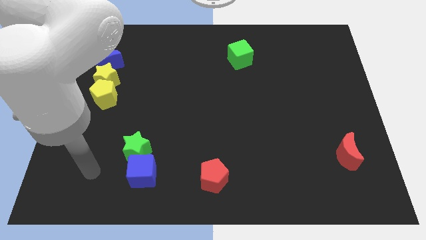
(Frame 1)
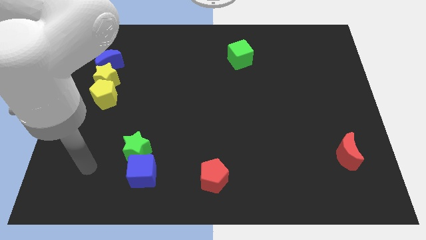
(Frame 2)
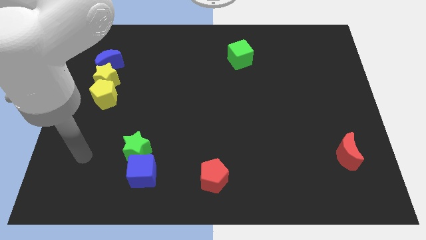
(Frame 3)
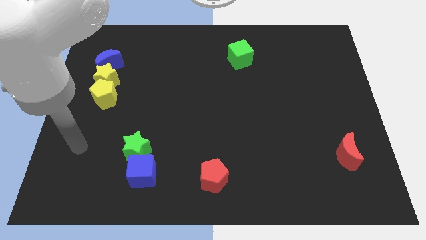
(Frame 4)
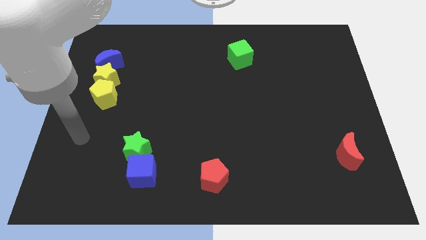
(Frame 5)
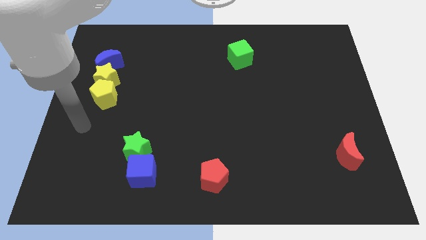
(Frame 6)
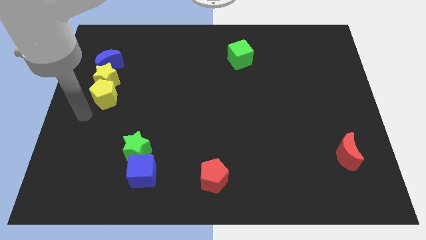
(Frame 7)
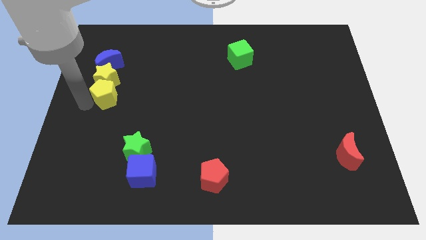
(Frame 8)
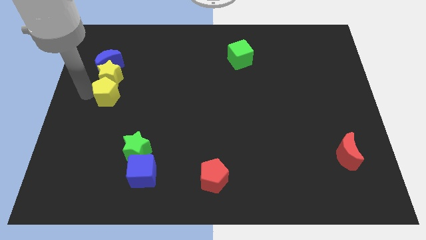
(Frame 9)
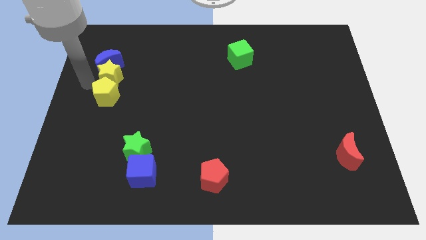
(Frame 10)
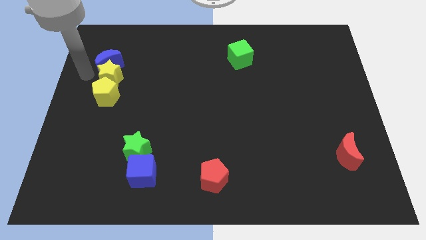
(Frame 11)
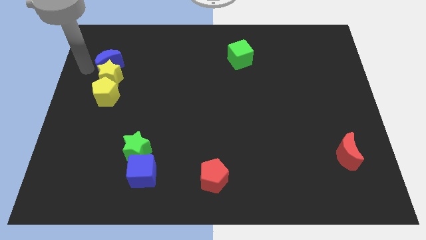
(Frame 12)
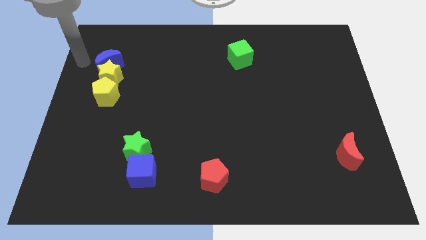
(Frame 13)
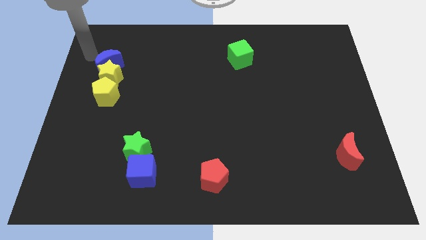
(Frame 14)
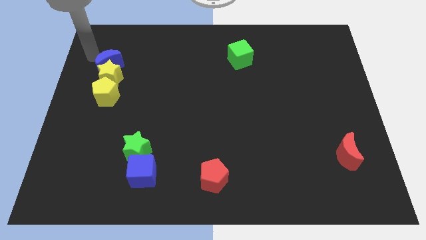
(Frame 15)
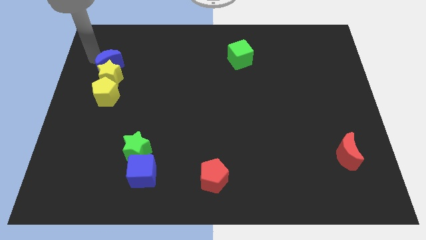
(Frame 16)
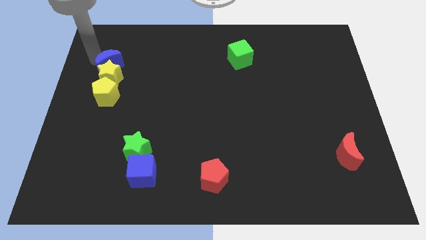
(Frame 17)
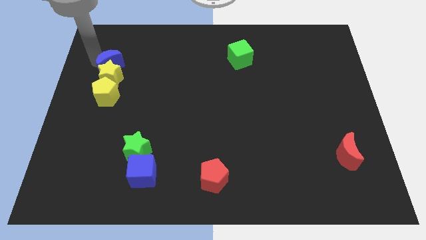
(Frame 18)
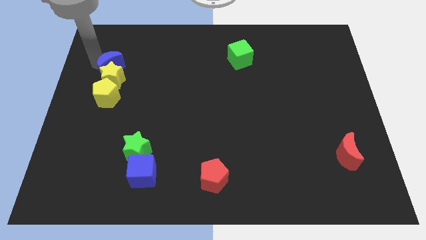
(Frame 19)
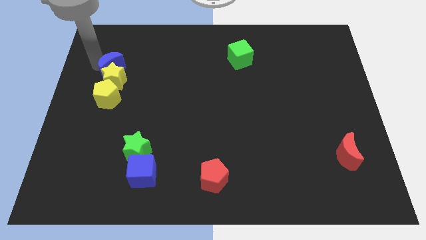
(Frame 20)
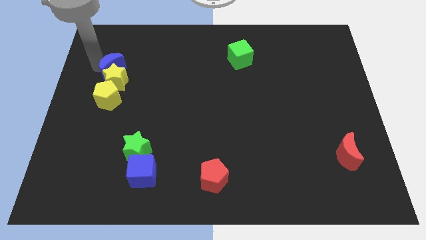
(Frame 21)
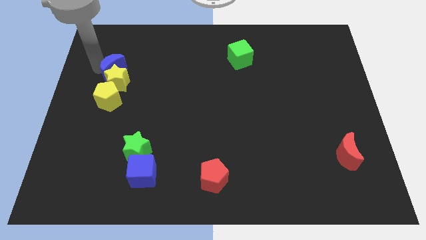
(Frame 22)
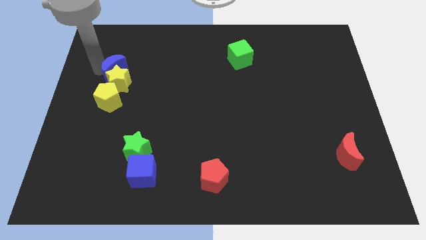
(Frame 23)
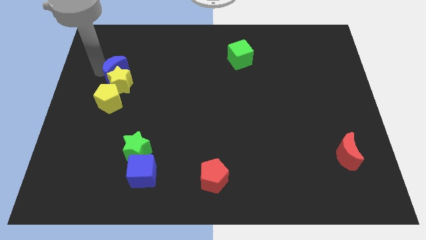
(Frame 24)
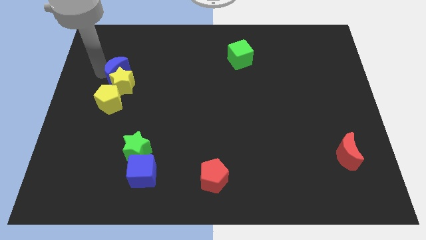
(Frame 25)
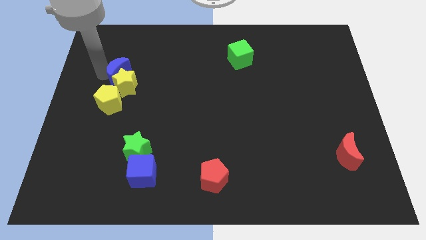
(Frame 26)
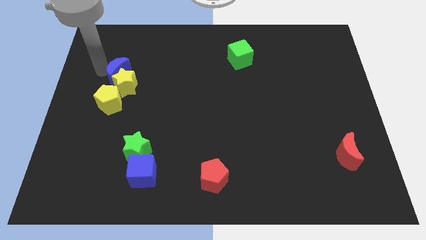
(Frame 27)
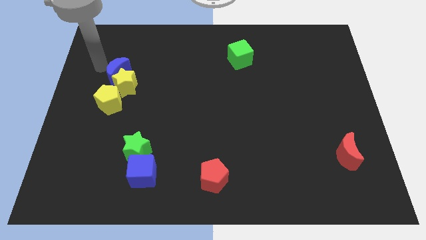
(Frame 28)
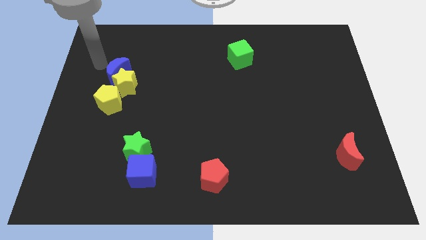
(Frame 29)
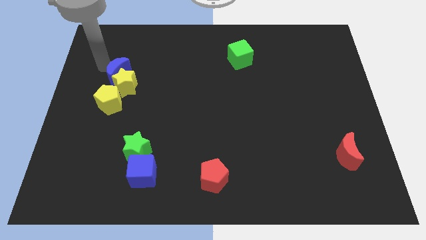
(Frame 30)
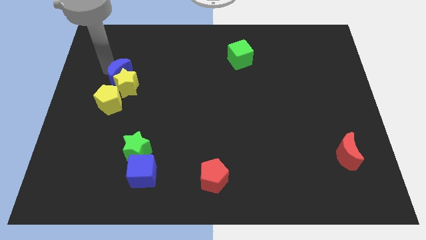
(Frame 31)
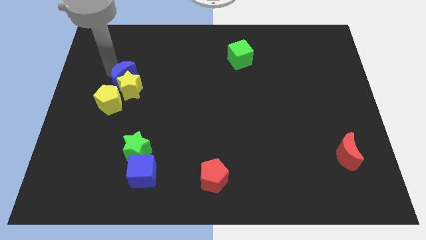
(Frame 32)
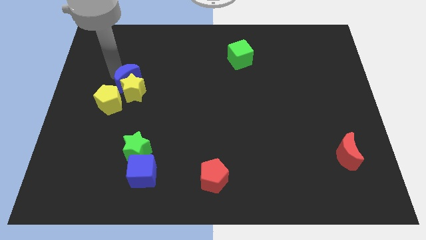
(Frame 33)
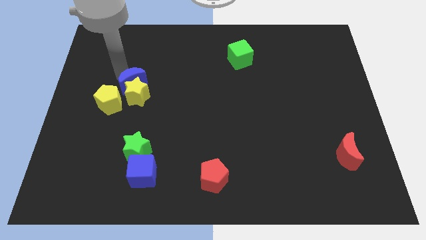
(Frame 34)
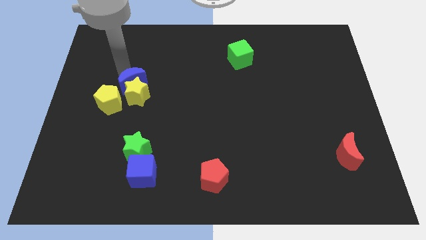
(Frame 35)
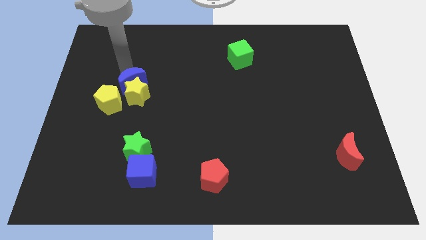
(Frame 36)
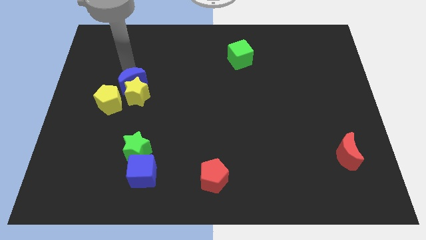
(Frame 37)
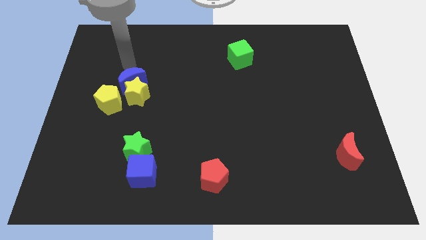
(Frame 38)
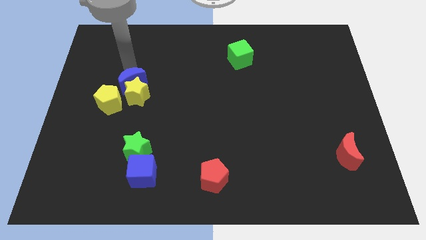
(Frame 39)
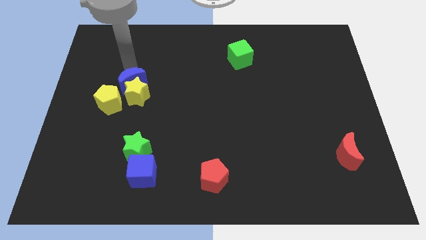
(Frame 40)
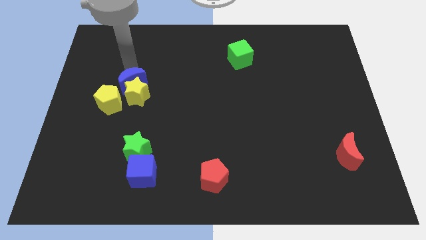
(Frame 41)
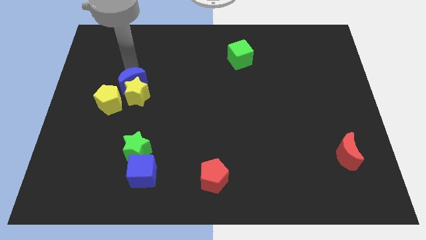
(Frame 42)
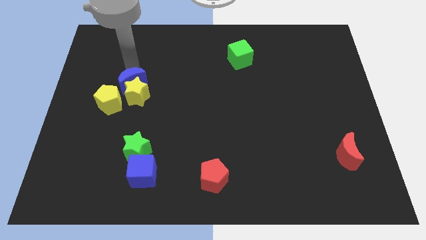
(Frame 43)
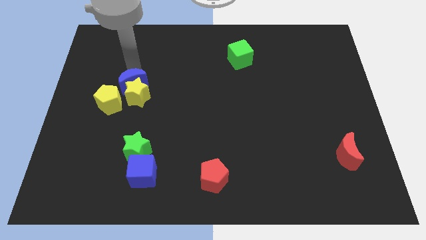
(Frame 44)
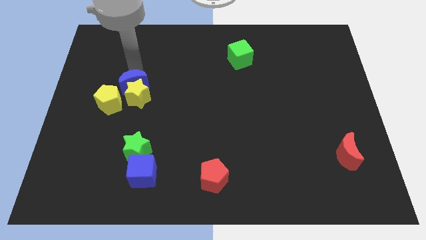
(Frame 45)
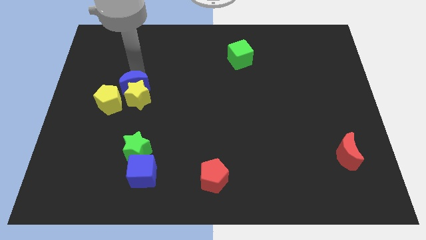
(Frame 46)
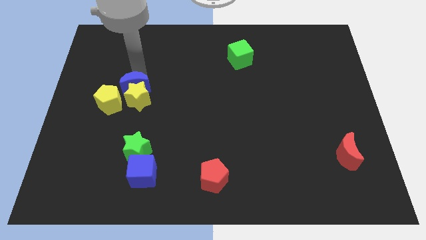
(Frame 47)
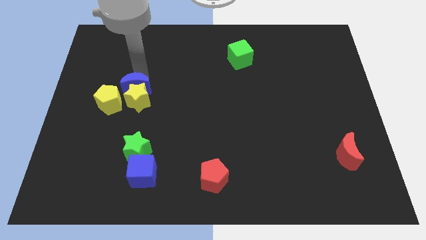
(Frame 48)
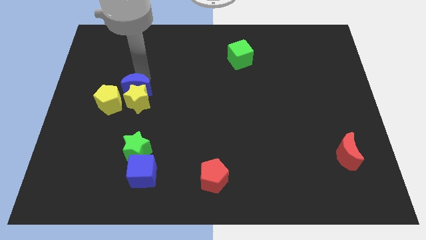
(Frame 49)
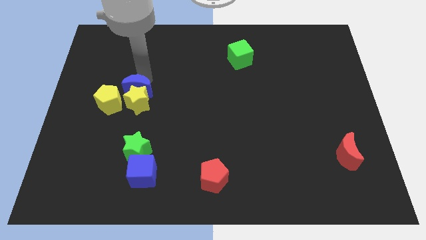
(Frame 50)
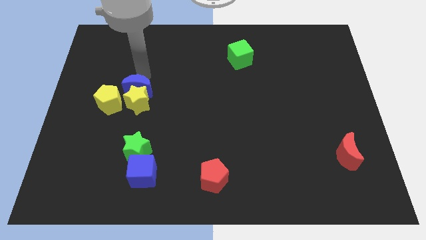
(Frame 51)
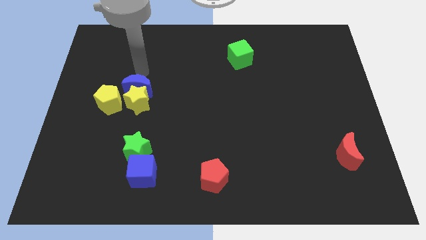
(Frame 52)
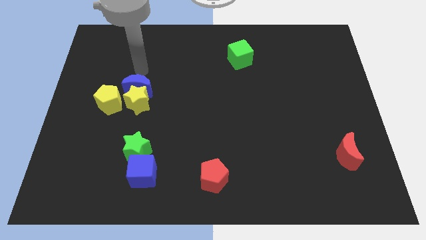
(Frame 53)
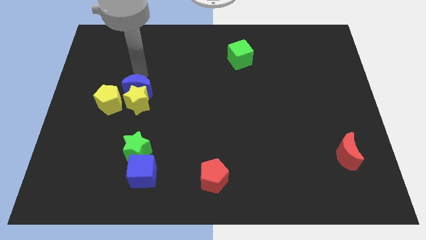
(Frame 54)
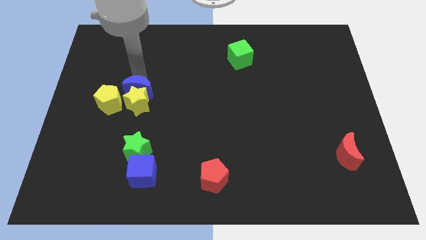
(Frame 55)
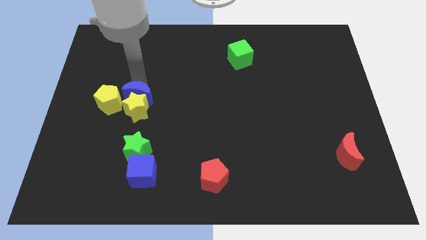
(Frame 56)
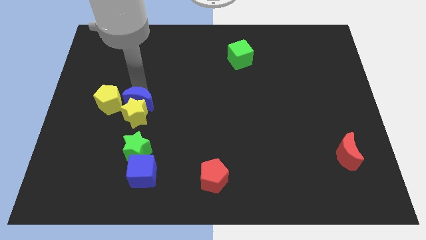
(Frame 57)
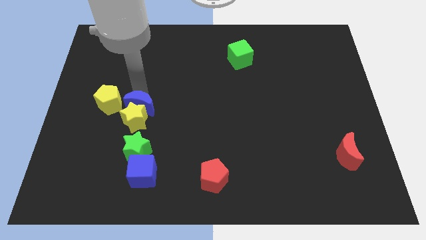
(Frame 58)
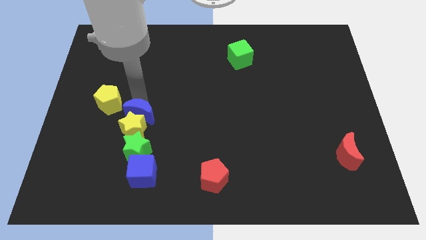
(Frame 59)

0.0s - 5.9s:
move the blue moon to the top of the blue cube

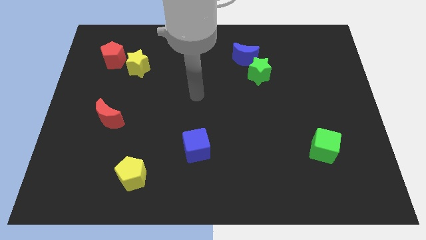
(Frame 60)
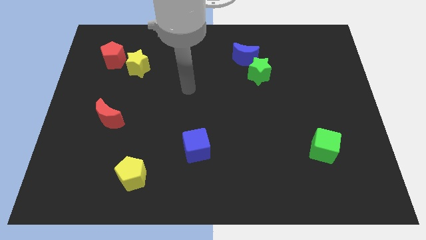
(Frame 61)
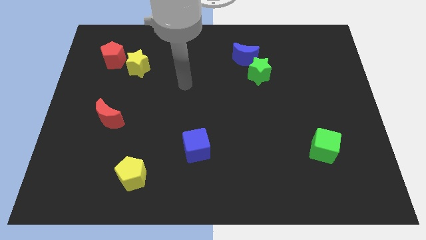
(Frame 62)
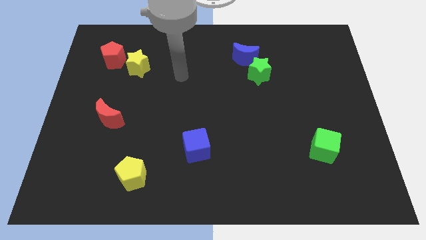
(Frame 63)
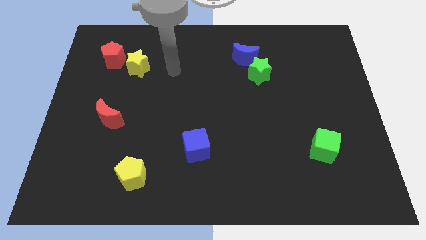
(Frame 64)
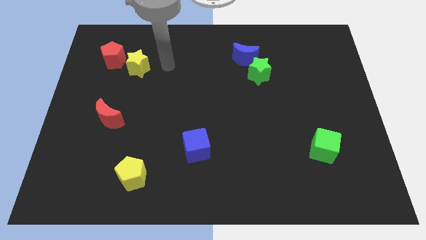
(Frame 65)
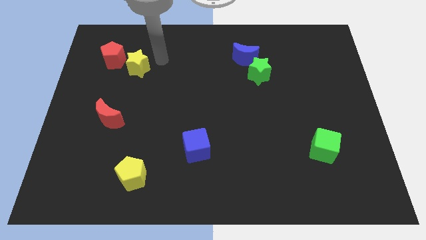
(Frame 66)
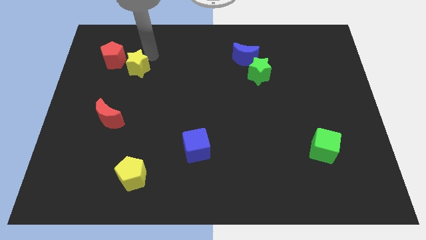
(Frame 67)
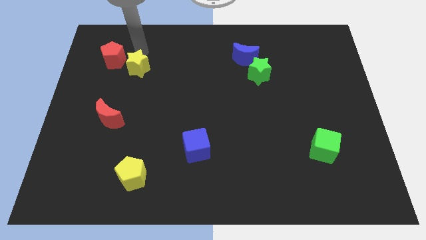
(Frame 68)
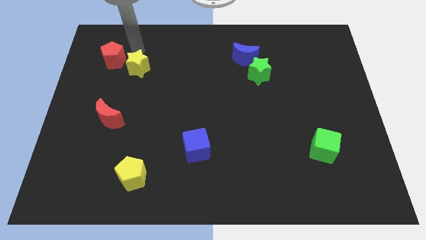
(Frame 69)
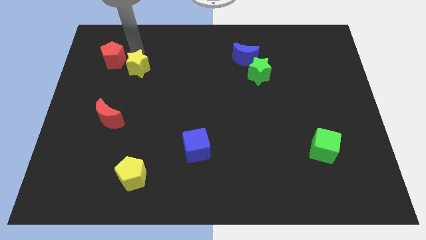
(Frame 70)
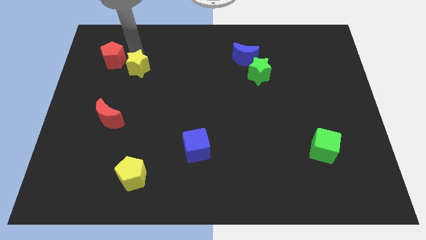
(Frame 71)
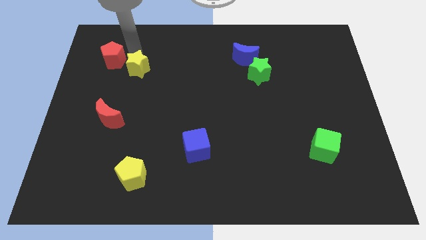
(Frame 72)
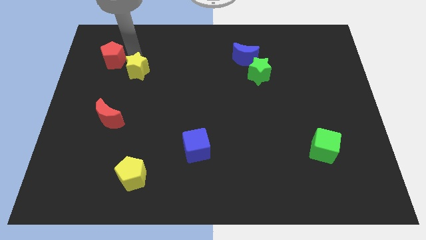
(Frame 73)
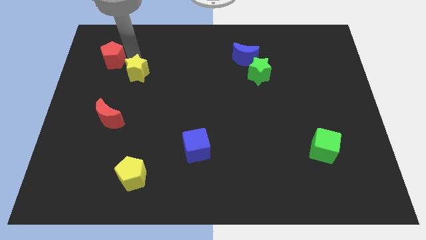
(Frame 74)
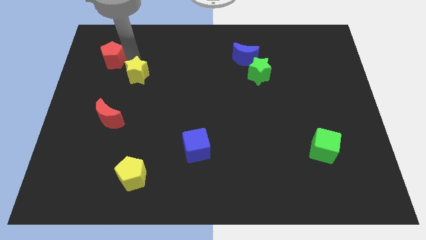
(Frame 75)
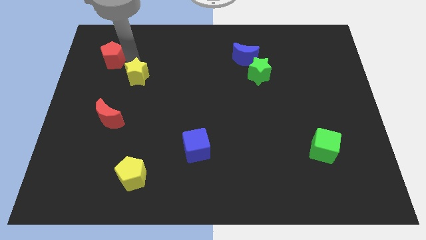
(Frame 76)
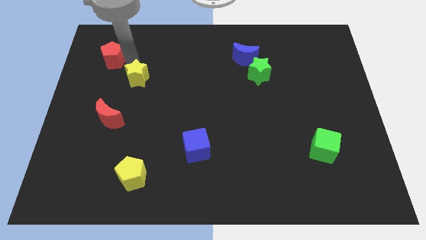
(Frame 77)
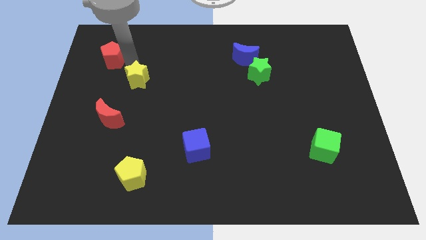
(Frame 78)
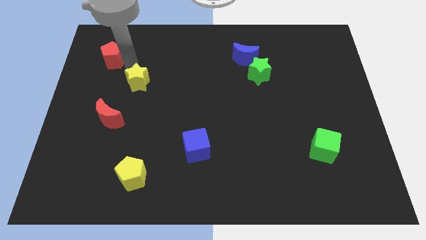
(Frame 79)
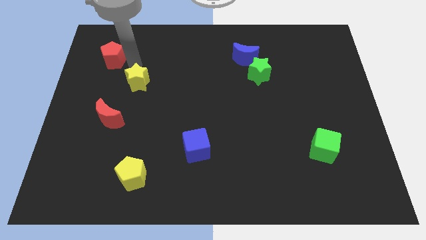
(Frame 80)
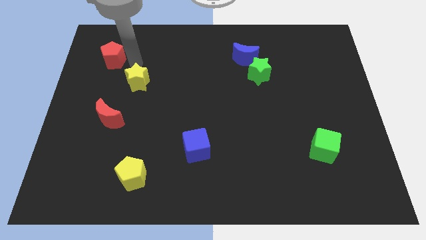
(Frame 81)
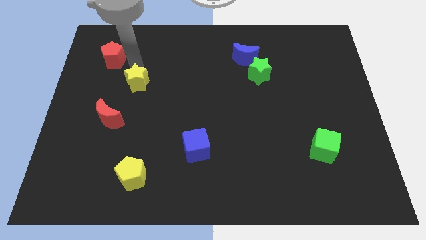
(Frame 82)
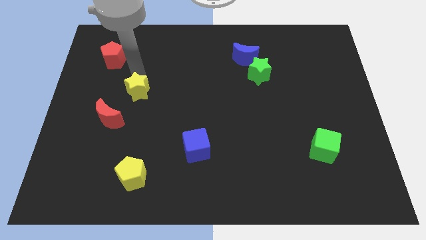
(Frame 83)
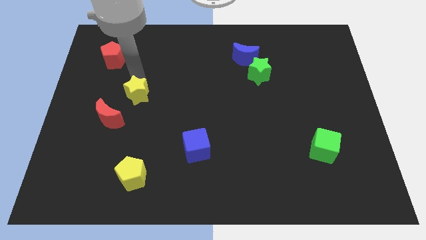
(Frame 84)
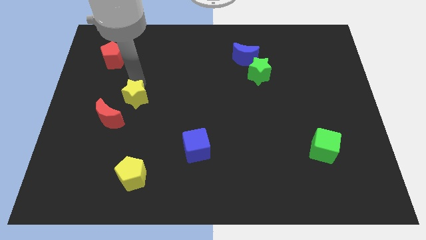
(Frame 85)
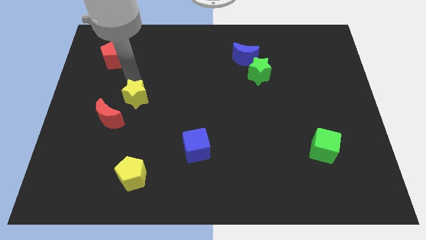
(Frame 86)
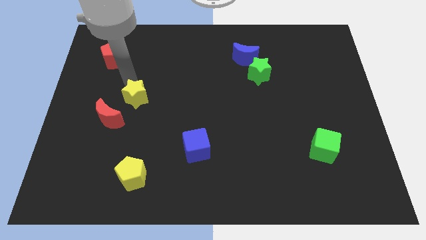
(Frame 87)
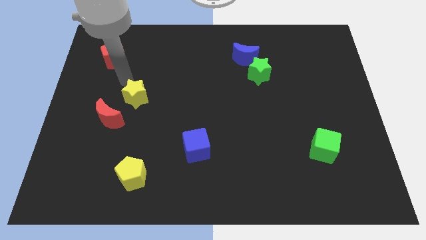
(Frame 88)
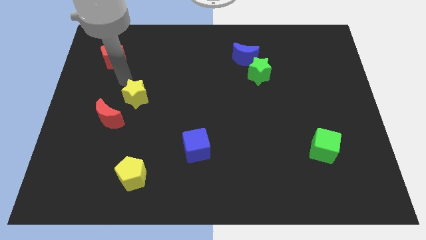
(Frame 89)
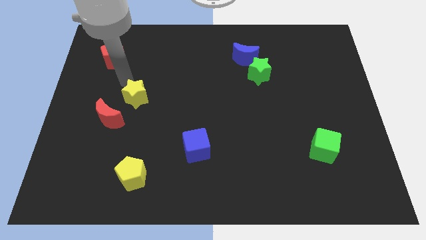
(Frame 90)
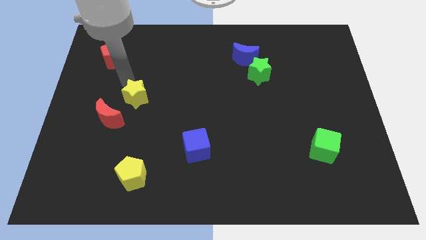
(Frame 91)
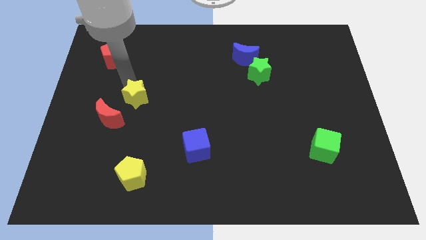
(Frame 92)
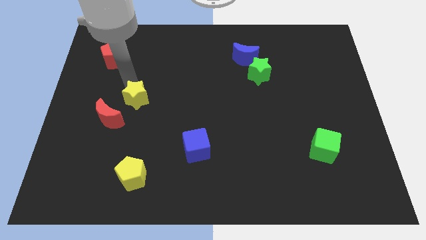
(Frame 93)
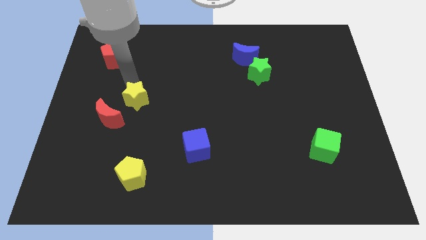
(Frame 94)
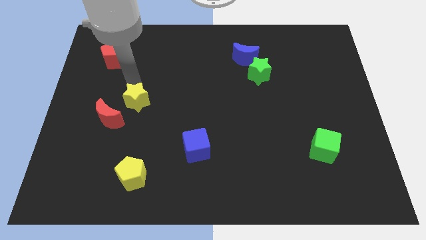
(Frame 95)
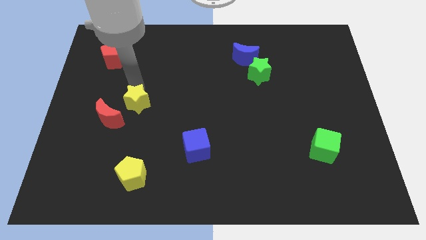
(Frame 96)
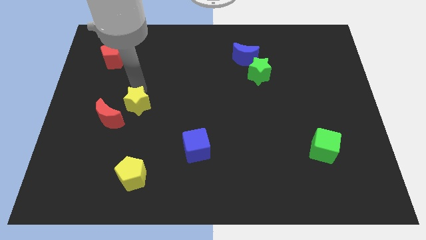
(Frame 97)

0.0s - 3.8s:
put the yellow star right of the red moon
